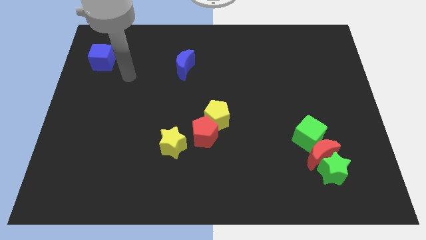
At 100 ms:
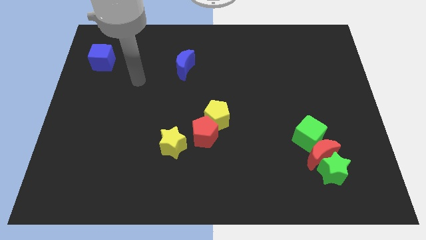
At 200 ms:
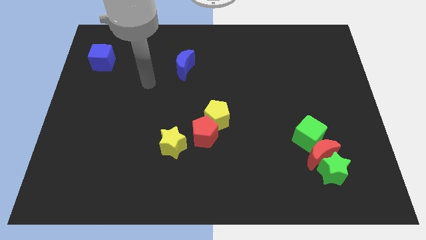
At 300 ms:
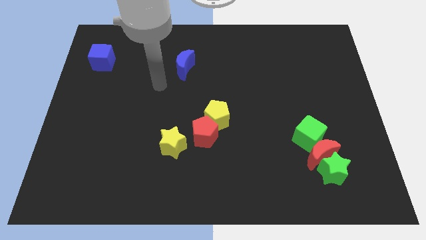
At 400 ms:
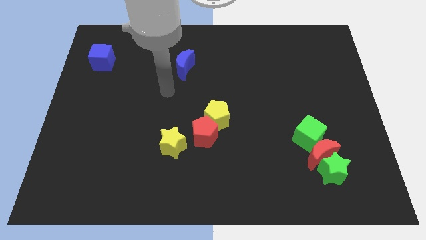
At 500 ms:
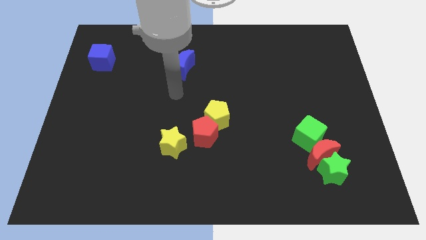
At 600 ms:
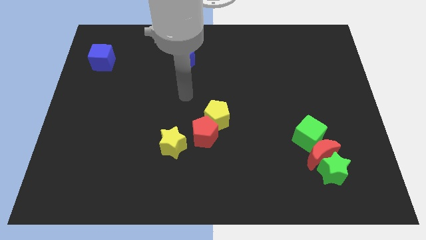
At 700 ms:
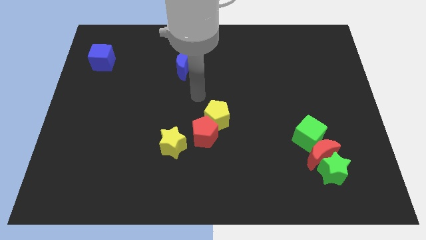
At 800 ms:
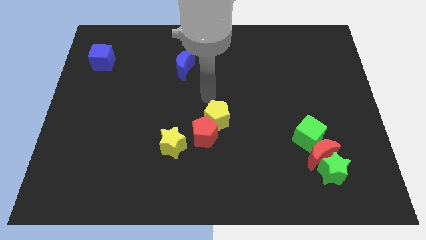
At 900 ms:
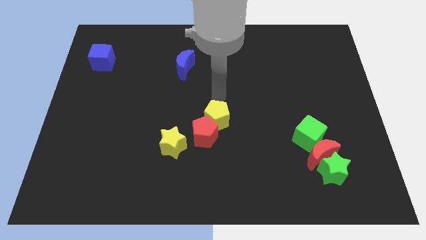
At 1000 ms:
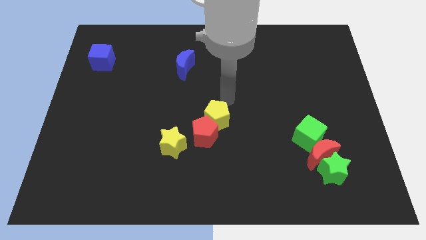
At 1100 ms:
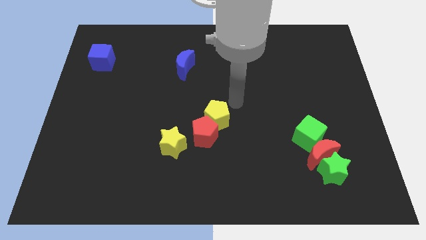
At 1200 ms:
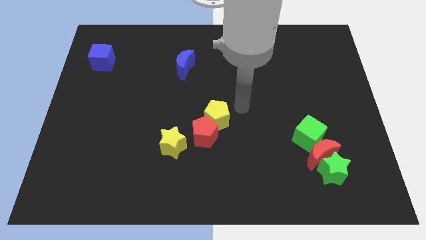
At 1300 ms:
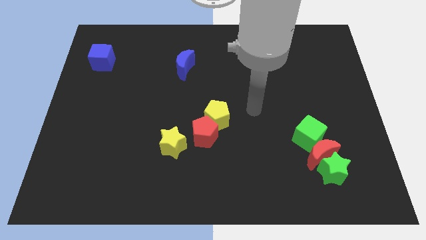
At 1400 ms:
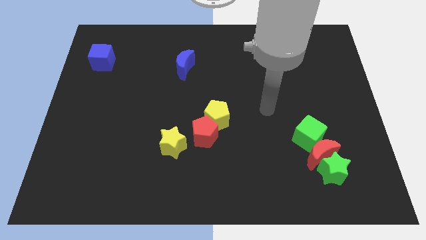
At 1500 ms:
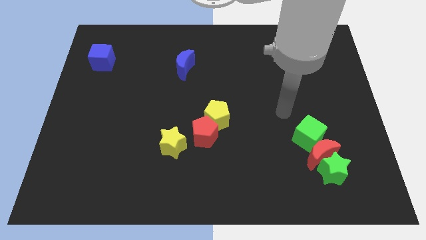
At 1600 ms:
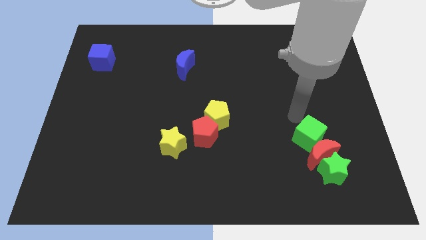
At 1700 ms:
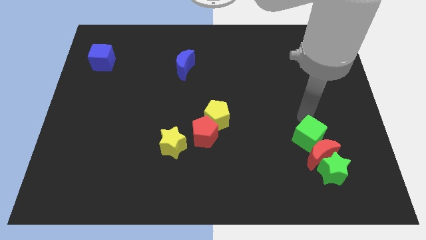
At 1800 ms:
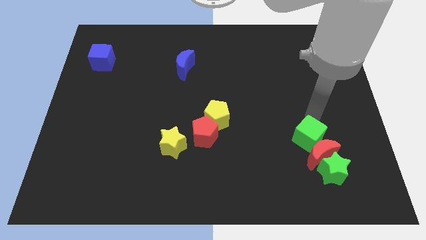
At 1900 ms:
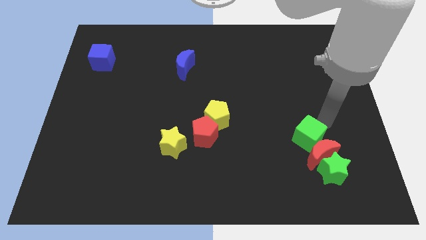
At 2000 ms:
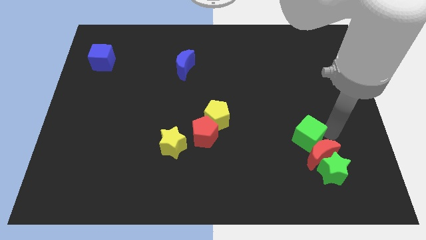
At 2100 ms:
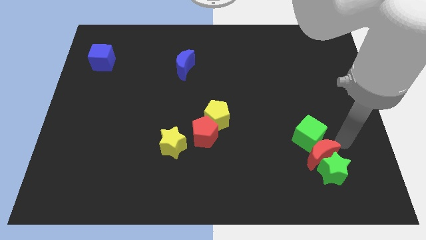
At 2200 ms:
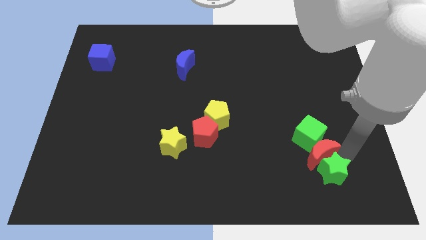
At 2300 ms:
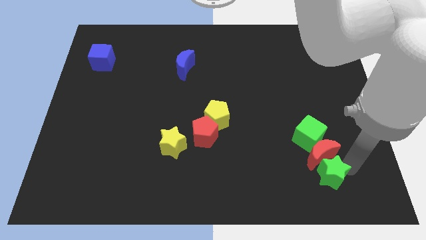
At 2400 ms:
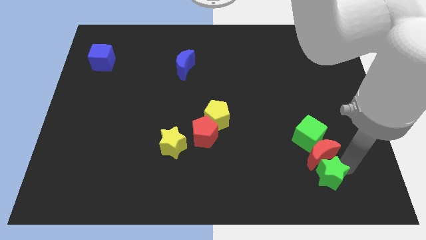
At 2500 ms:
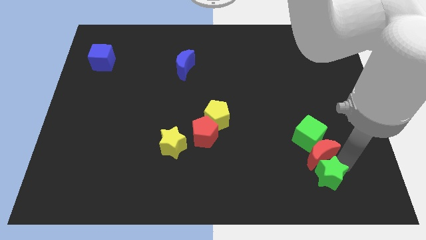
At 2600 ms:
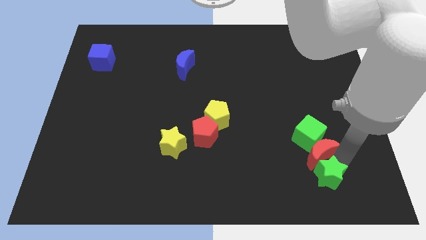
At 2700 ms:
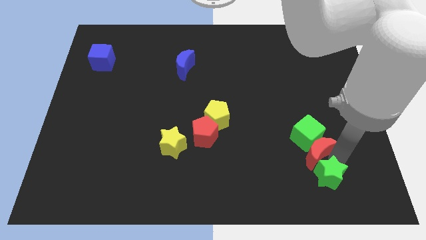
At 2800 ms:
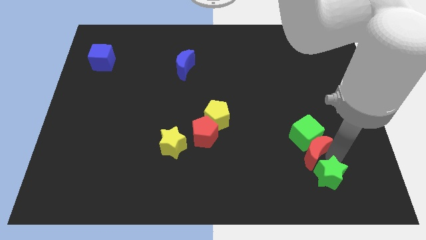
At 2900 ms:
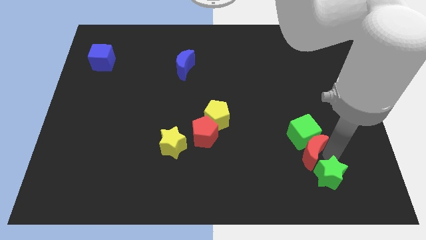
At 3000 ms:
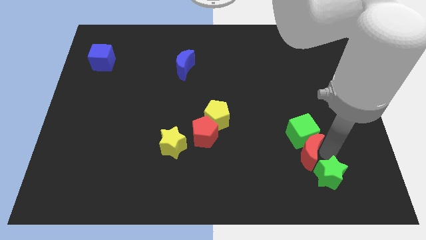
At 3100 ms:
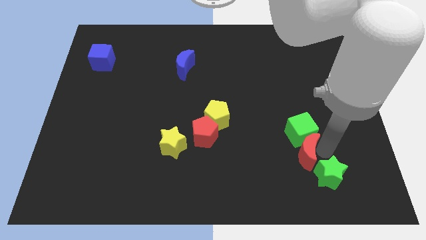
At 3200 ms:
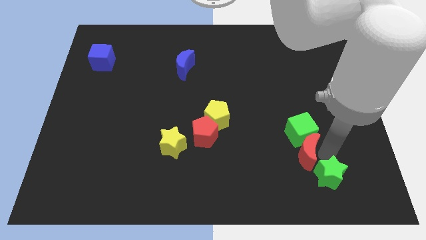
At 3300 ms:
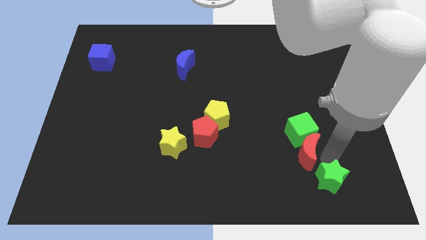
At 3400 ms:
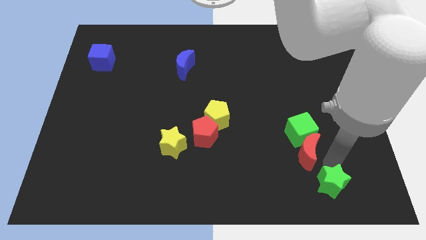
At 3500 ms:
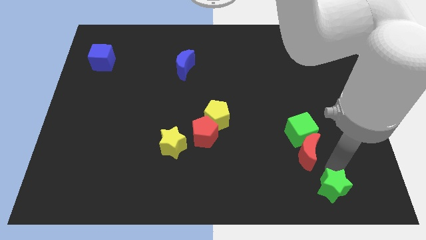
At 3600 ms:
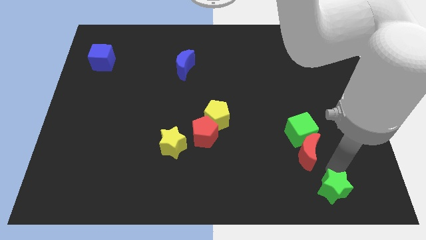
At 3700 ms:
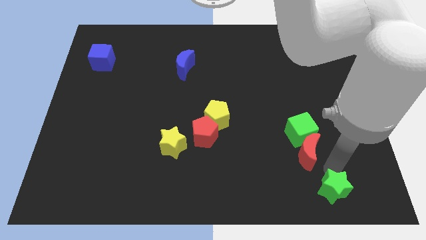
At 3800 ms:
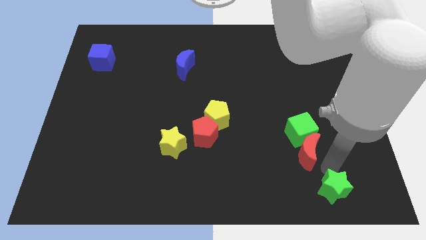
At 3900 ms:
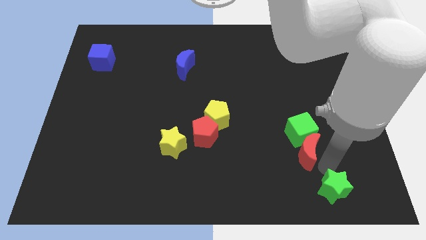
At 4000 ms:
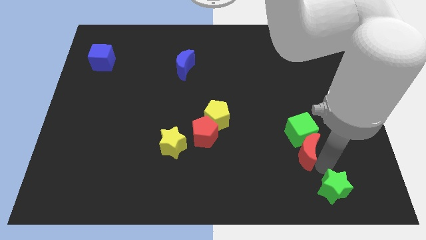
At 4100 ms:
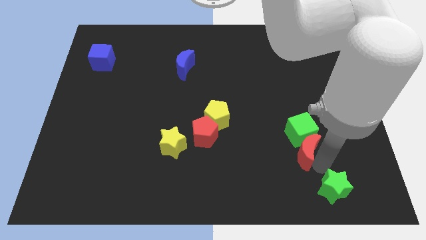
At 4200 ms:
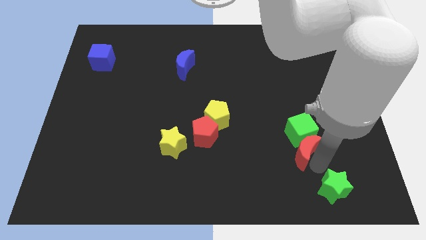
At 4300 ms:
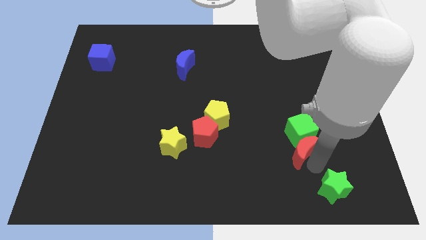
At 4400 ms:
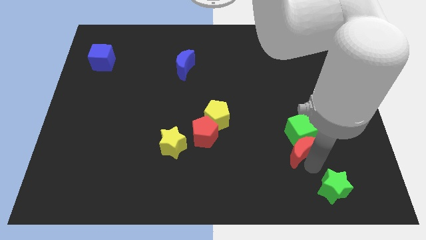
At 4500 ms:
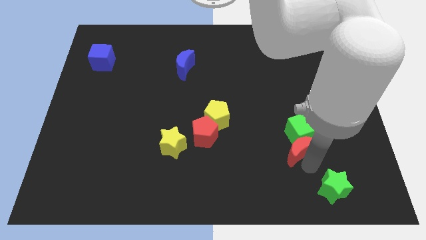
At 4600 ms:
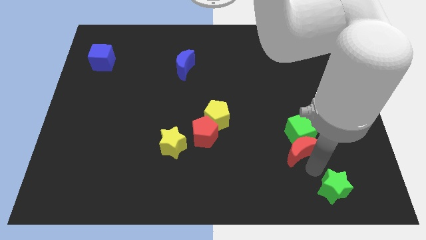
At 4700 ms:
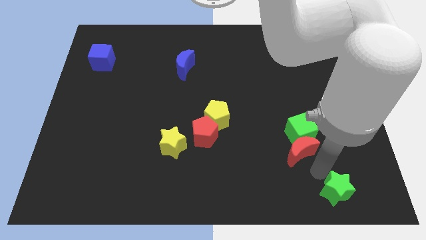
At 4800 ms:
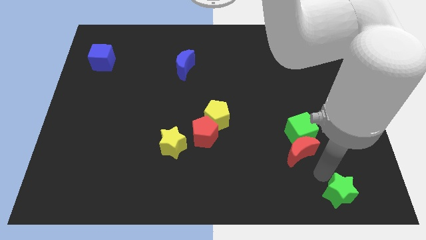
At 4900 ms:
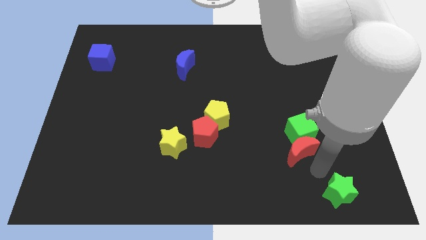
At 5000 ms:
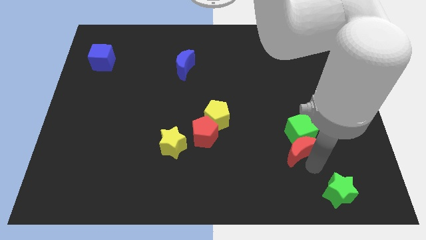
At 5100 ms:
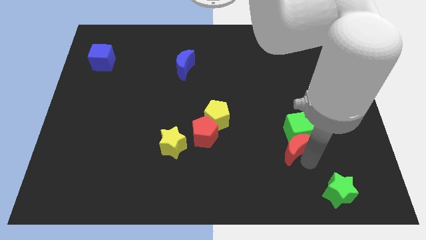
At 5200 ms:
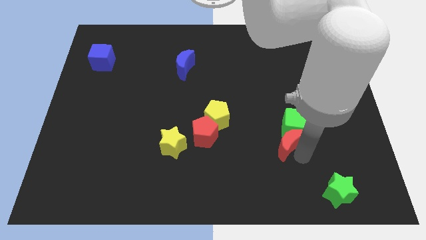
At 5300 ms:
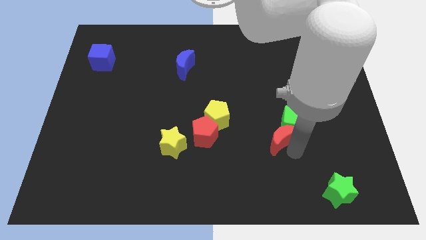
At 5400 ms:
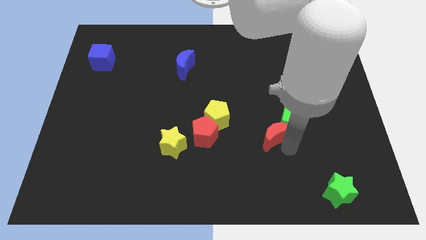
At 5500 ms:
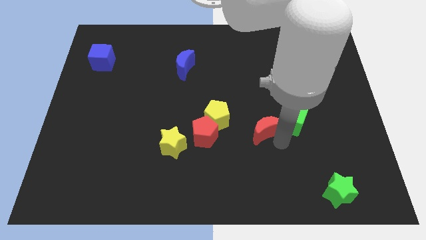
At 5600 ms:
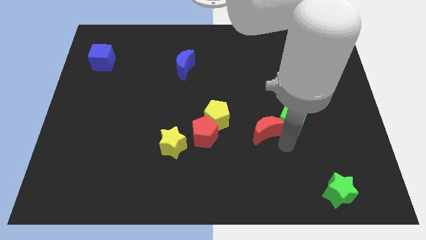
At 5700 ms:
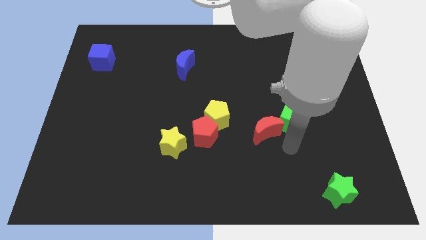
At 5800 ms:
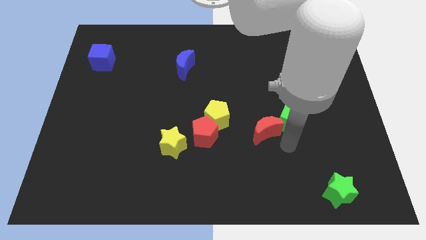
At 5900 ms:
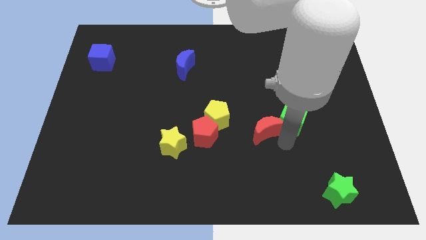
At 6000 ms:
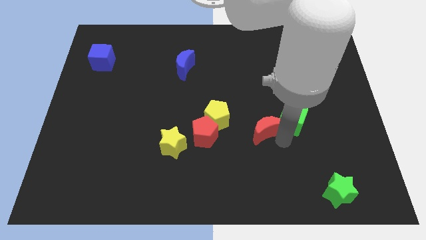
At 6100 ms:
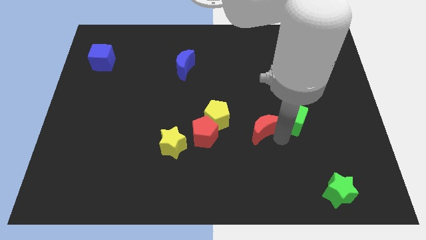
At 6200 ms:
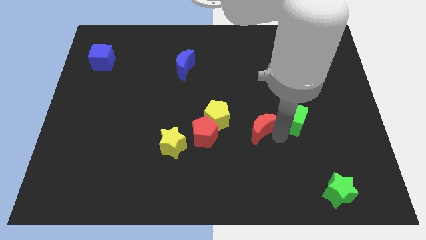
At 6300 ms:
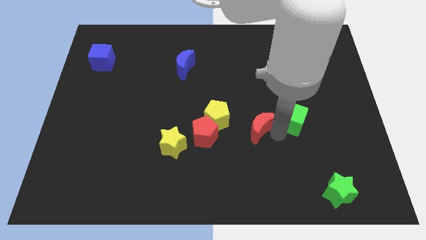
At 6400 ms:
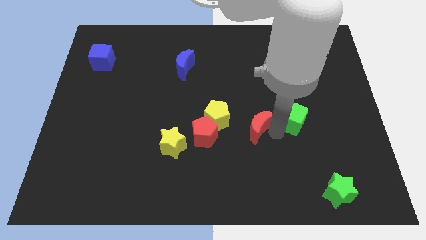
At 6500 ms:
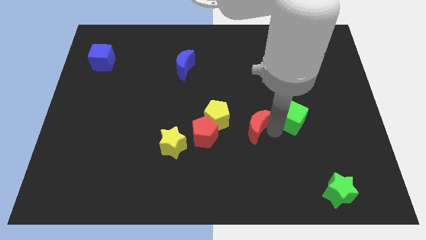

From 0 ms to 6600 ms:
put the red moon to the center of the board
